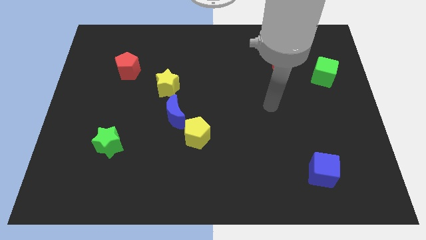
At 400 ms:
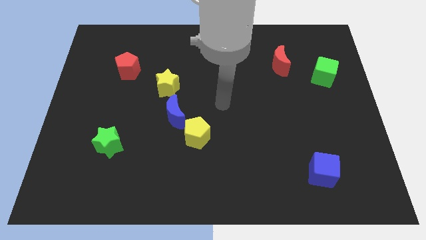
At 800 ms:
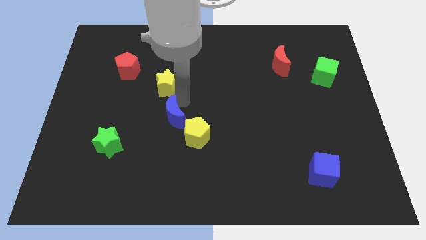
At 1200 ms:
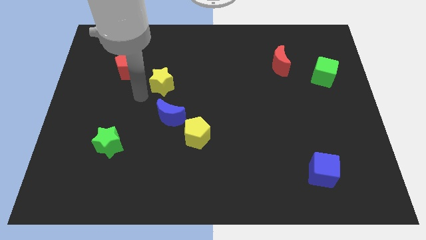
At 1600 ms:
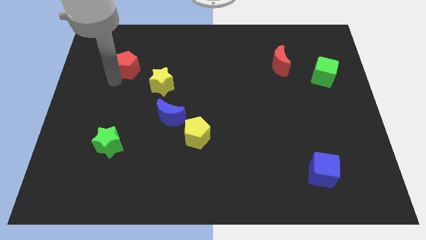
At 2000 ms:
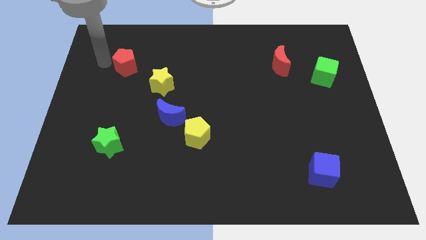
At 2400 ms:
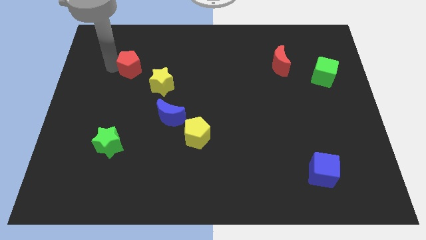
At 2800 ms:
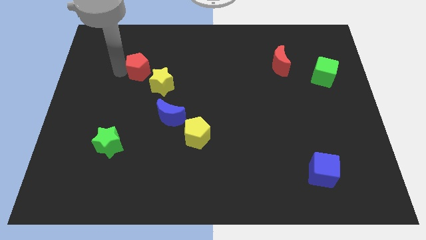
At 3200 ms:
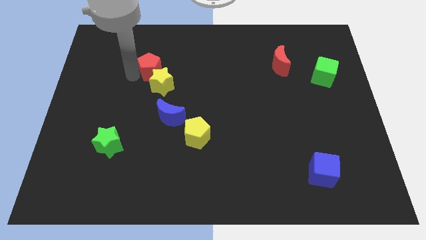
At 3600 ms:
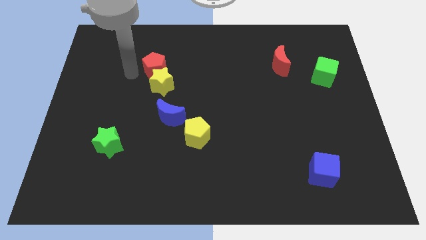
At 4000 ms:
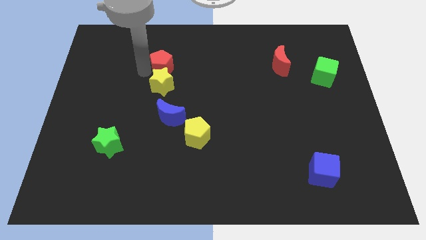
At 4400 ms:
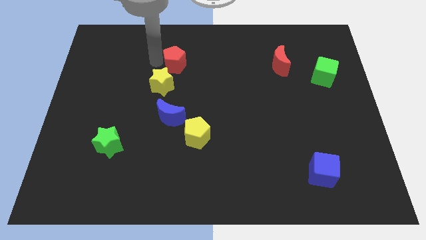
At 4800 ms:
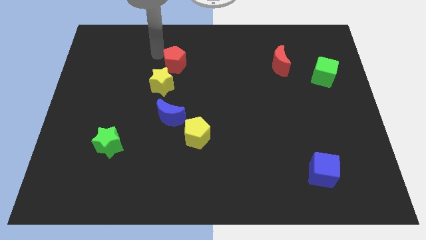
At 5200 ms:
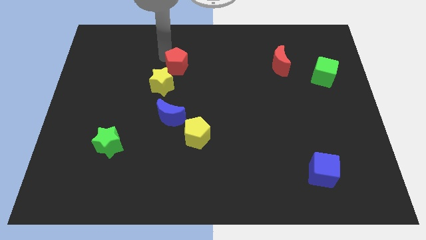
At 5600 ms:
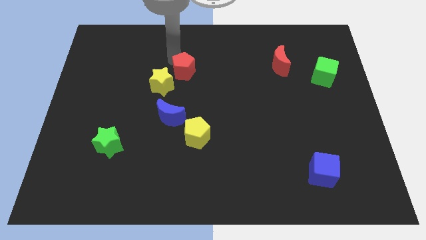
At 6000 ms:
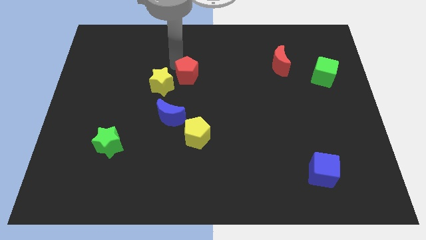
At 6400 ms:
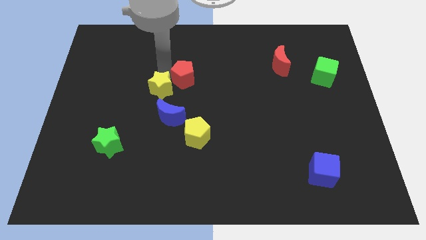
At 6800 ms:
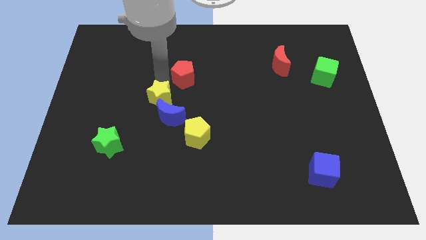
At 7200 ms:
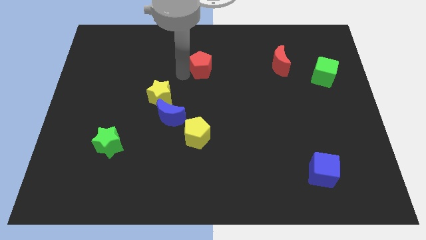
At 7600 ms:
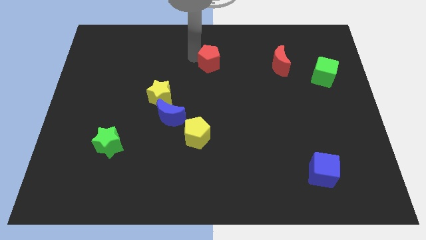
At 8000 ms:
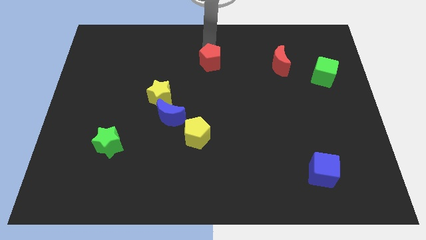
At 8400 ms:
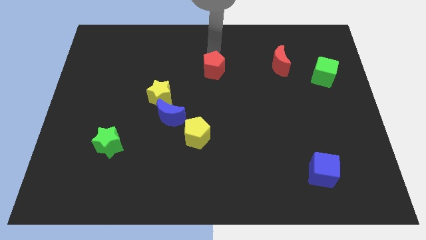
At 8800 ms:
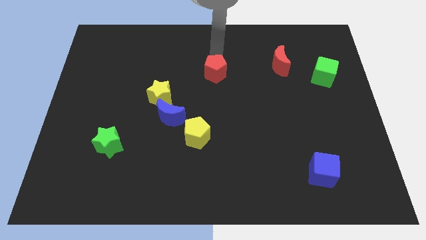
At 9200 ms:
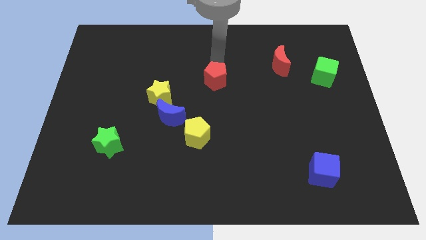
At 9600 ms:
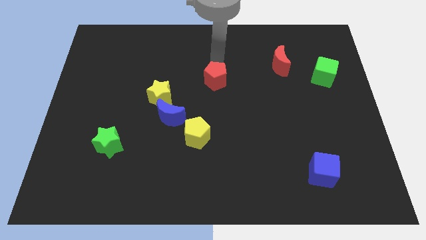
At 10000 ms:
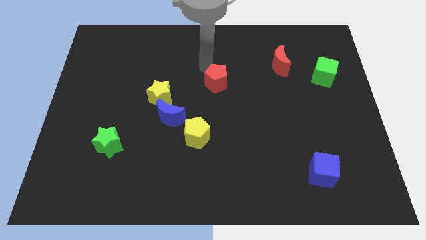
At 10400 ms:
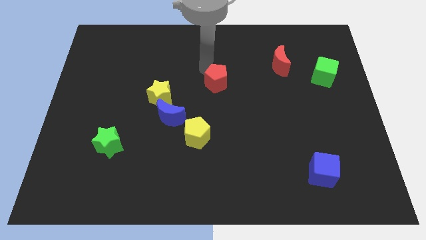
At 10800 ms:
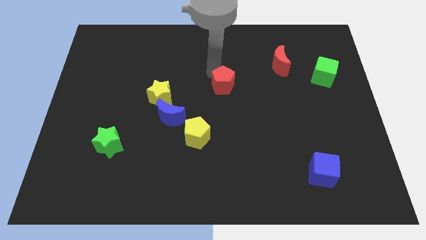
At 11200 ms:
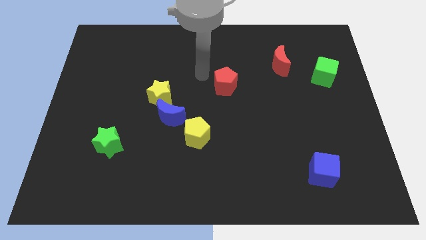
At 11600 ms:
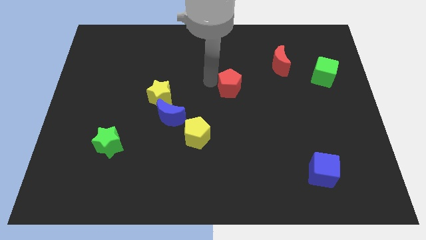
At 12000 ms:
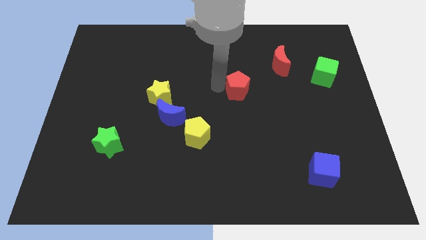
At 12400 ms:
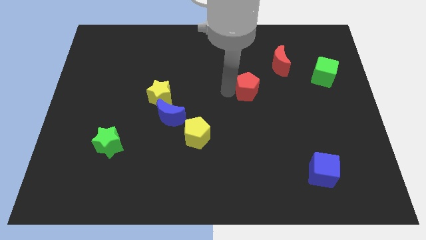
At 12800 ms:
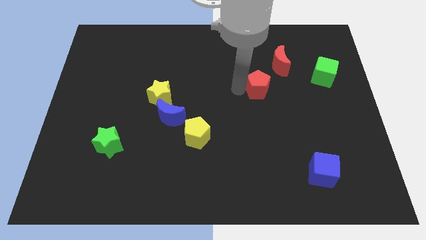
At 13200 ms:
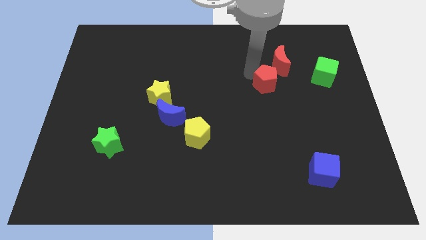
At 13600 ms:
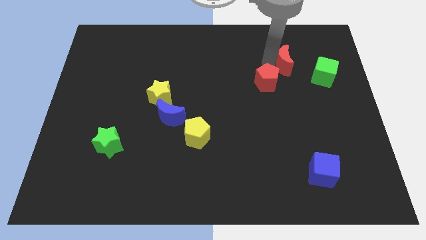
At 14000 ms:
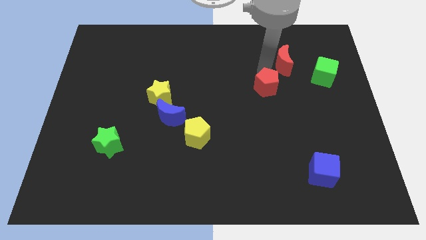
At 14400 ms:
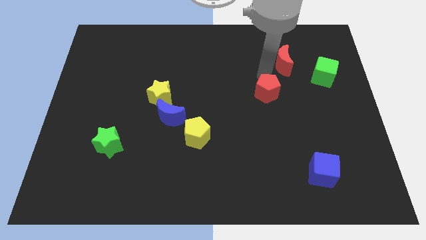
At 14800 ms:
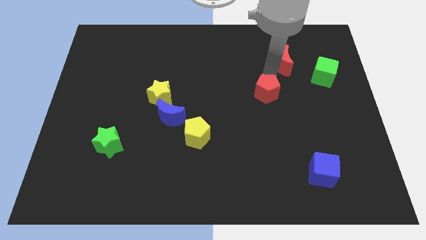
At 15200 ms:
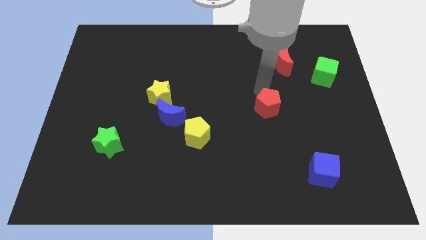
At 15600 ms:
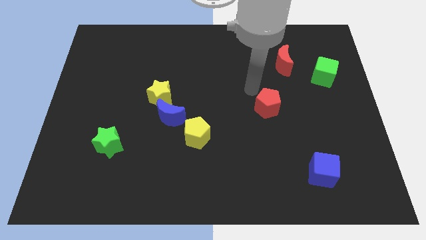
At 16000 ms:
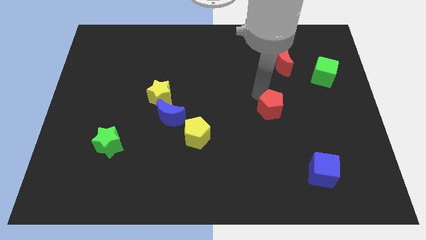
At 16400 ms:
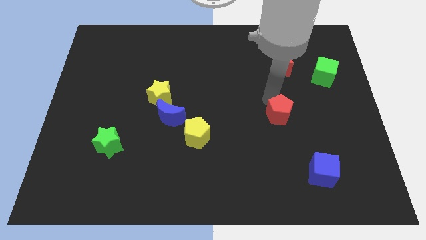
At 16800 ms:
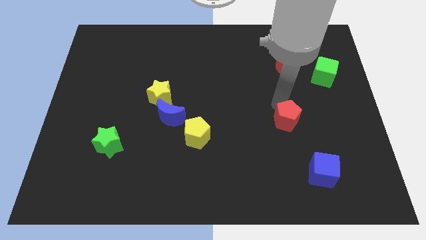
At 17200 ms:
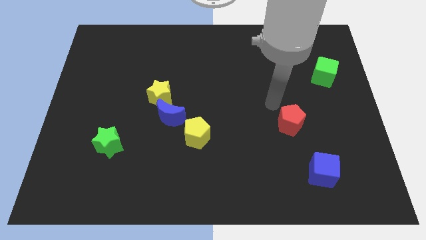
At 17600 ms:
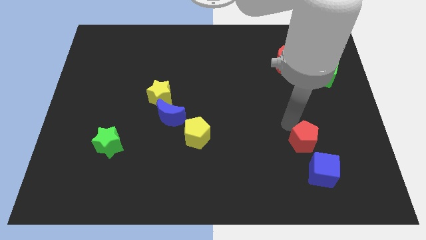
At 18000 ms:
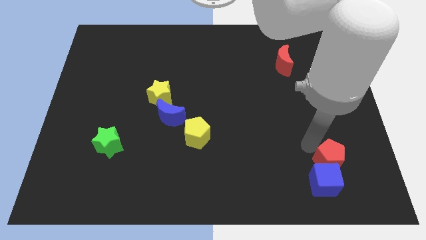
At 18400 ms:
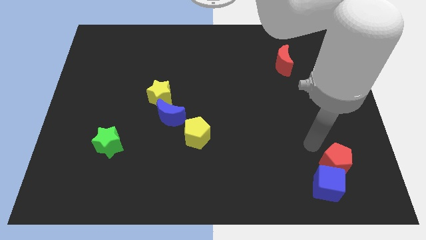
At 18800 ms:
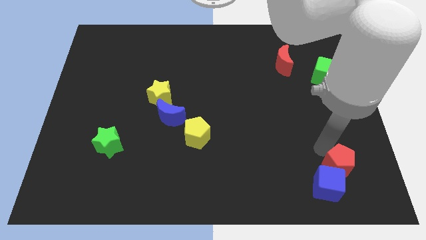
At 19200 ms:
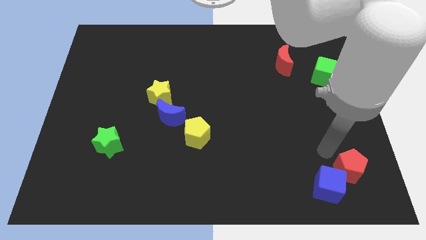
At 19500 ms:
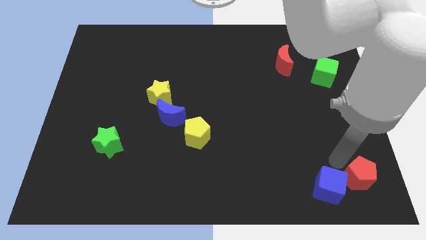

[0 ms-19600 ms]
move the red pentagon to the bottom right corner

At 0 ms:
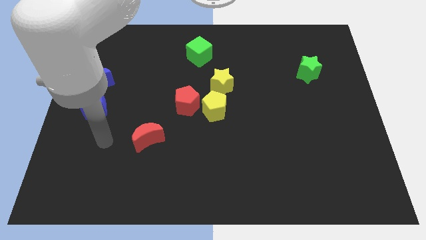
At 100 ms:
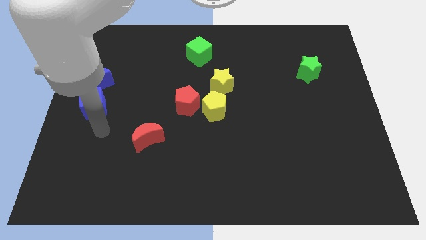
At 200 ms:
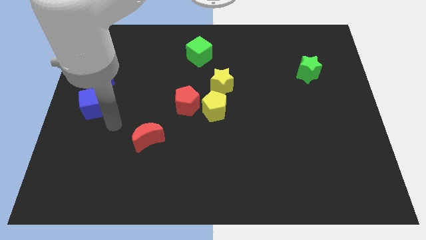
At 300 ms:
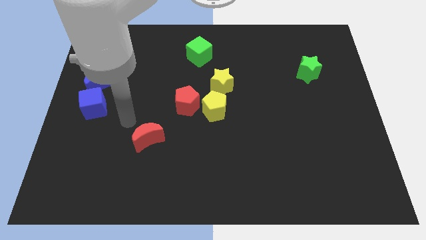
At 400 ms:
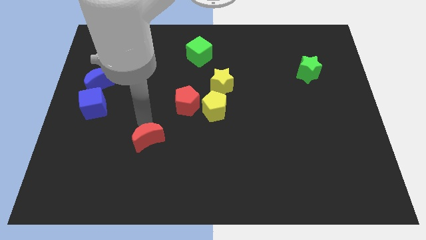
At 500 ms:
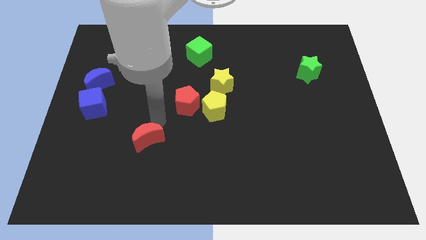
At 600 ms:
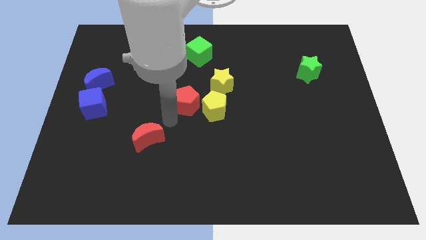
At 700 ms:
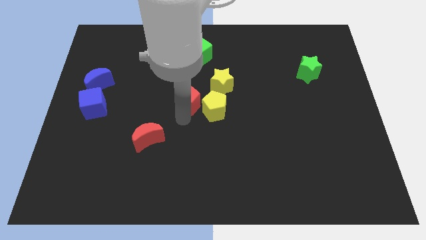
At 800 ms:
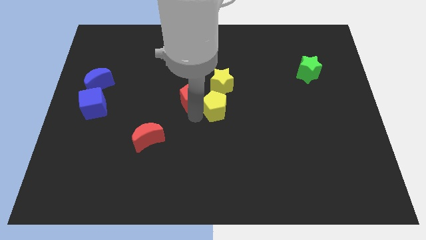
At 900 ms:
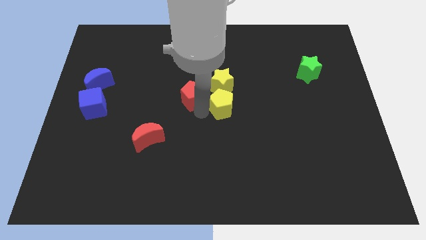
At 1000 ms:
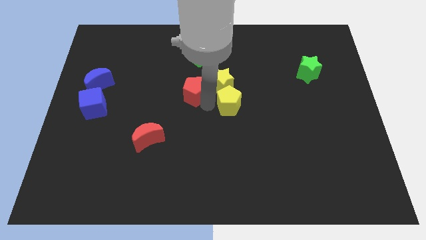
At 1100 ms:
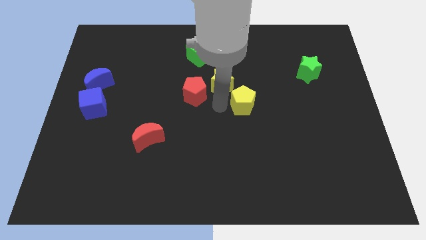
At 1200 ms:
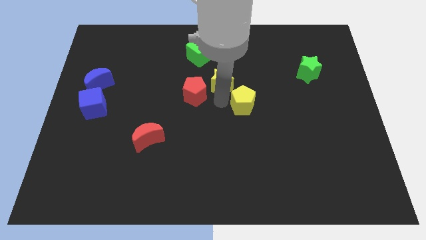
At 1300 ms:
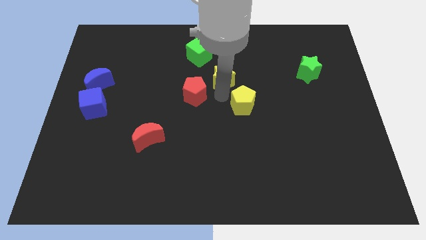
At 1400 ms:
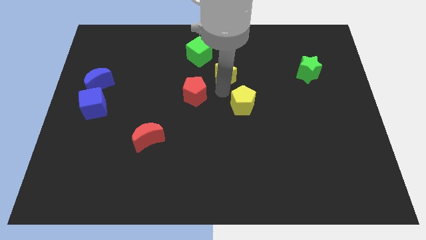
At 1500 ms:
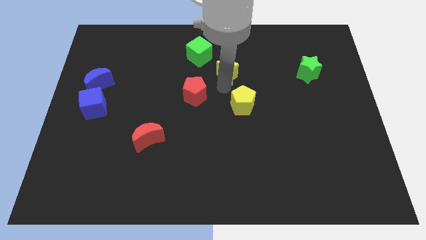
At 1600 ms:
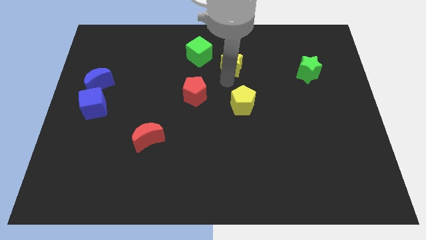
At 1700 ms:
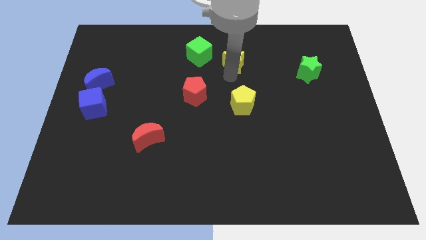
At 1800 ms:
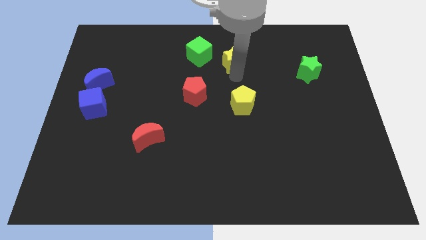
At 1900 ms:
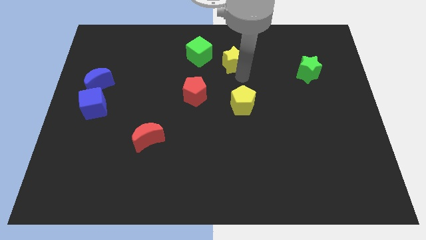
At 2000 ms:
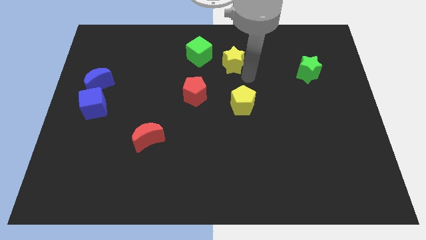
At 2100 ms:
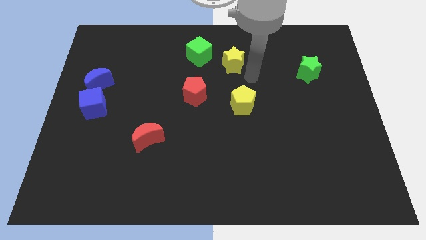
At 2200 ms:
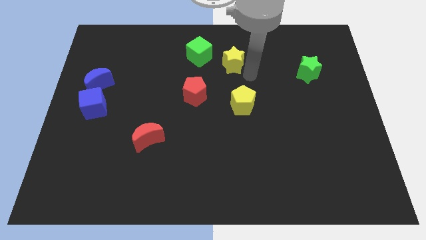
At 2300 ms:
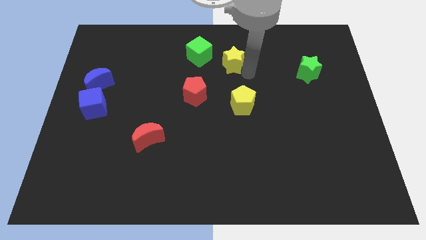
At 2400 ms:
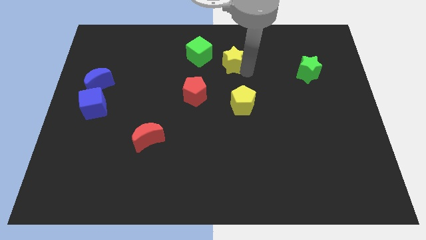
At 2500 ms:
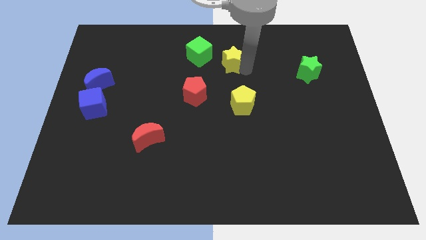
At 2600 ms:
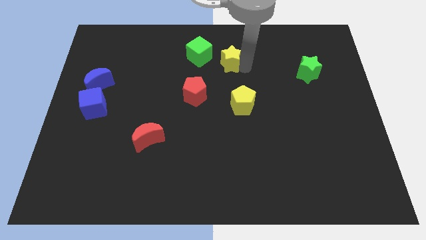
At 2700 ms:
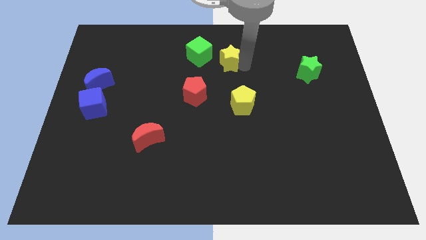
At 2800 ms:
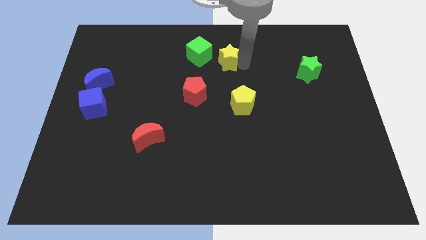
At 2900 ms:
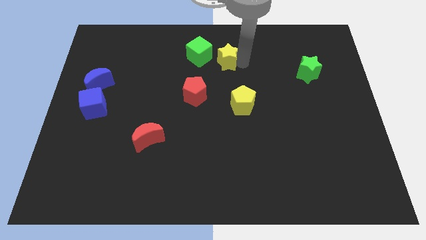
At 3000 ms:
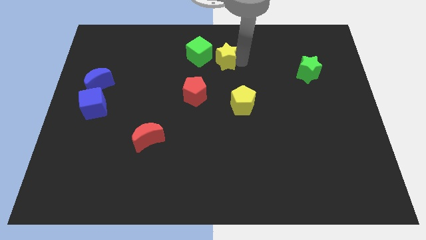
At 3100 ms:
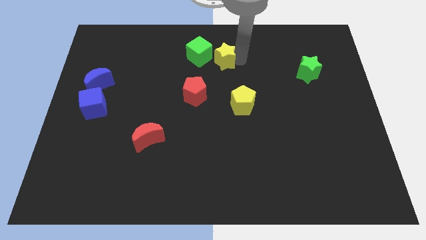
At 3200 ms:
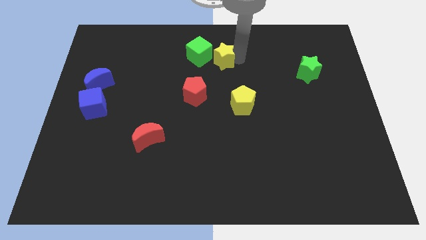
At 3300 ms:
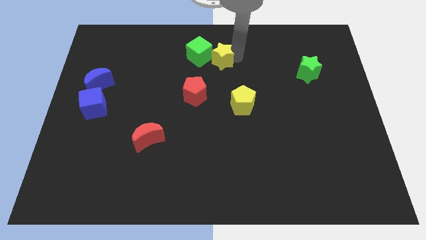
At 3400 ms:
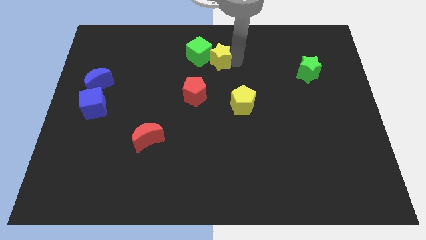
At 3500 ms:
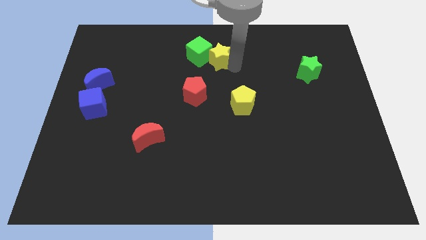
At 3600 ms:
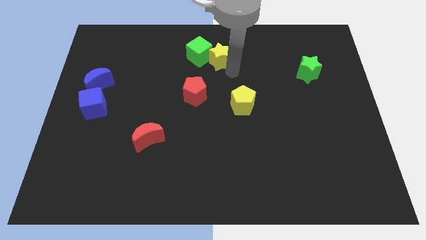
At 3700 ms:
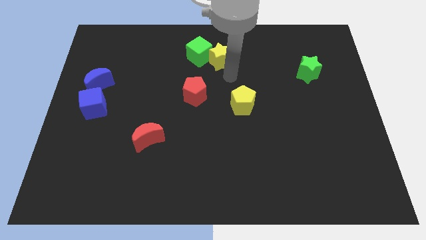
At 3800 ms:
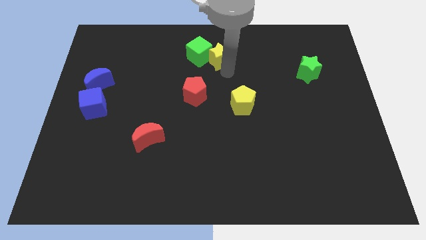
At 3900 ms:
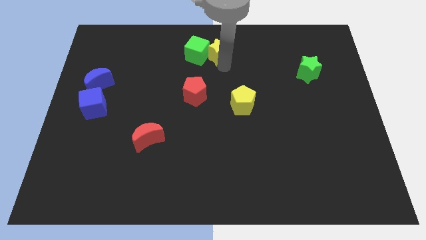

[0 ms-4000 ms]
put the yellow star to the top side
